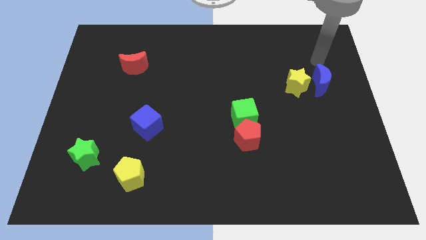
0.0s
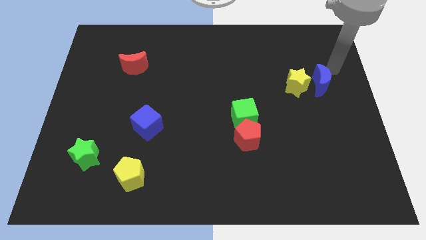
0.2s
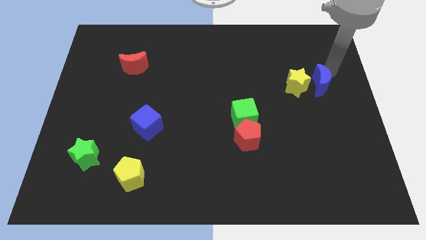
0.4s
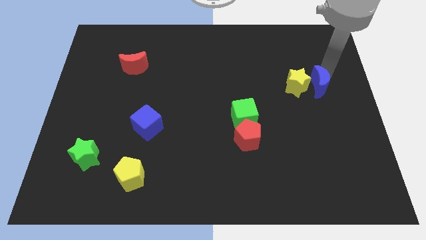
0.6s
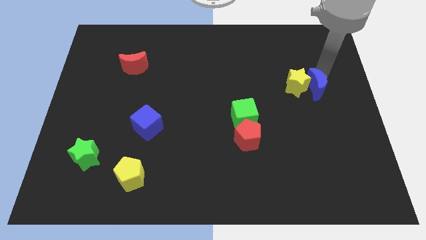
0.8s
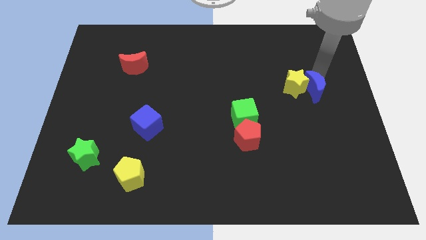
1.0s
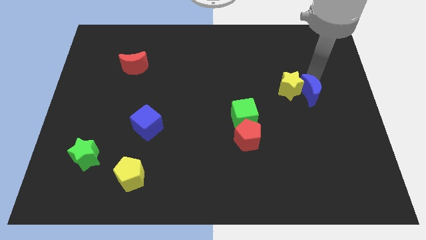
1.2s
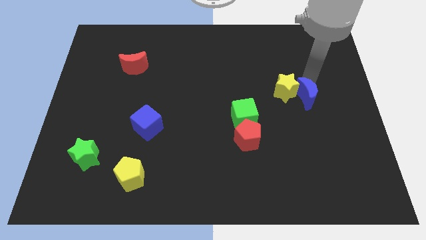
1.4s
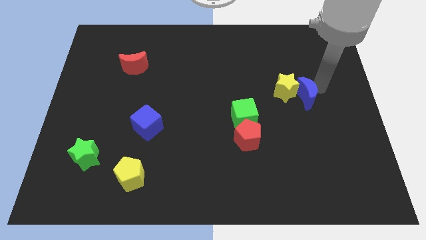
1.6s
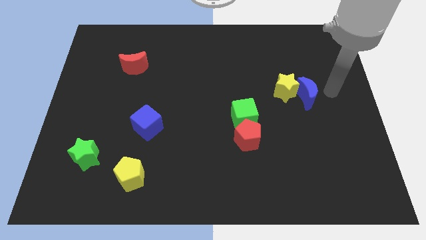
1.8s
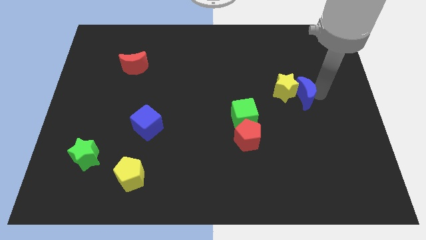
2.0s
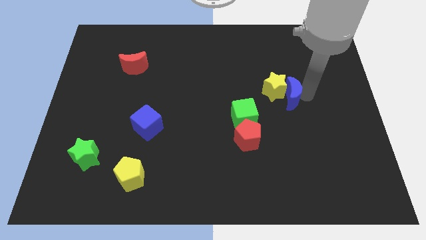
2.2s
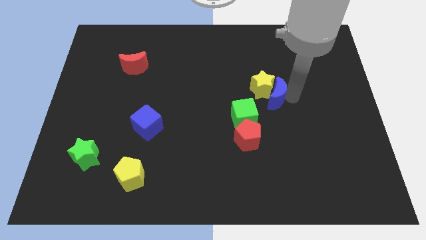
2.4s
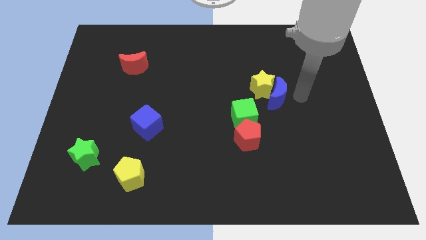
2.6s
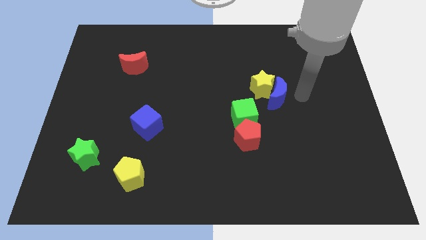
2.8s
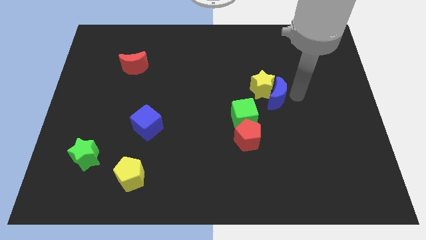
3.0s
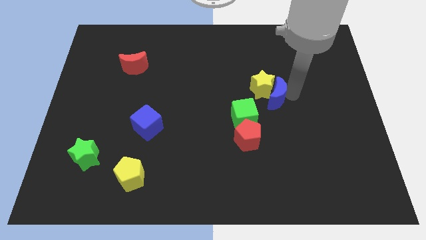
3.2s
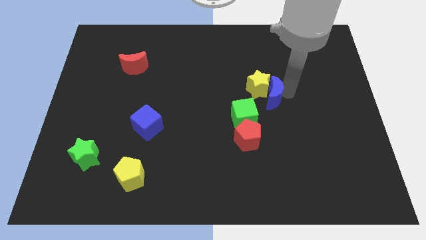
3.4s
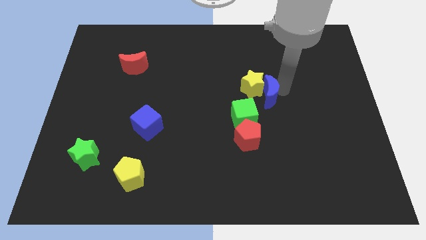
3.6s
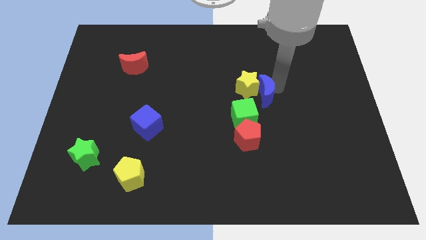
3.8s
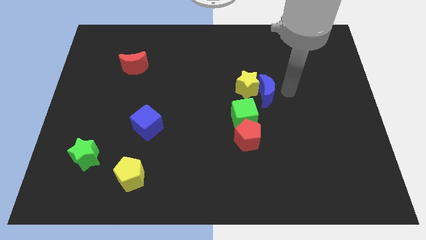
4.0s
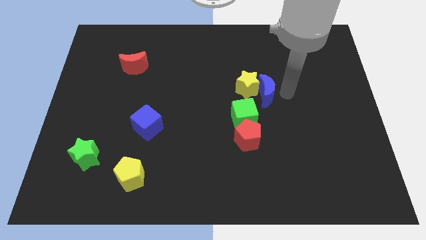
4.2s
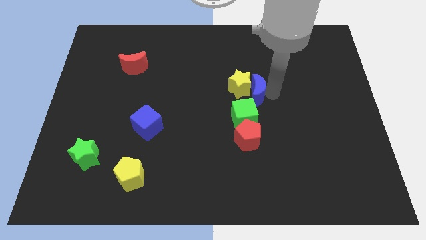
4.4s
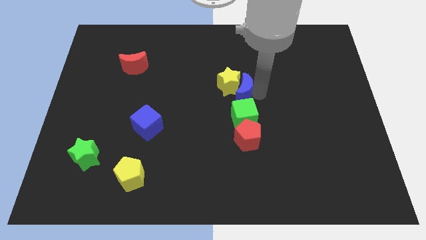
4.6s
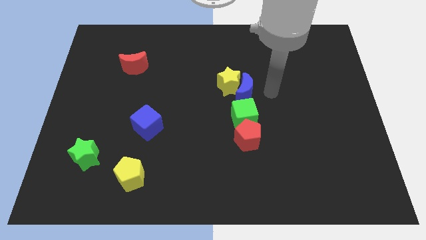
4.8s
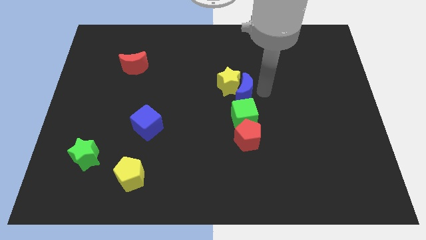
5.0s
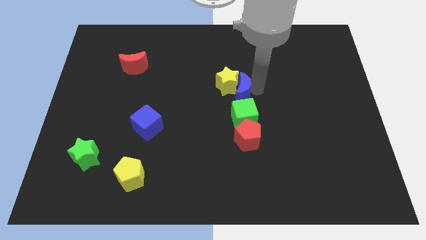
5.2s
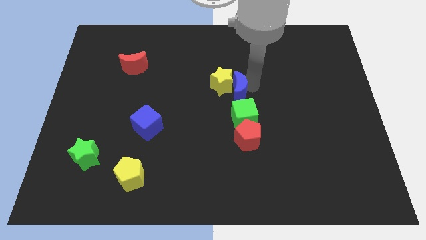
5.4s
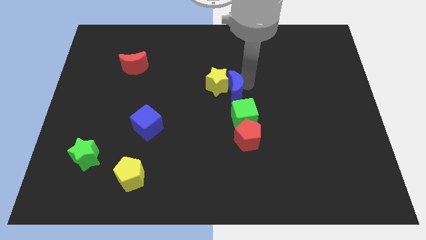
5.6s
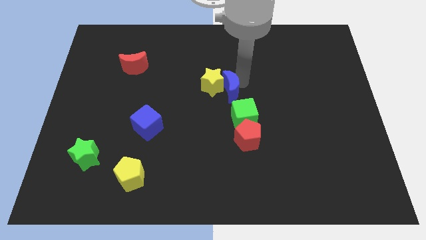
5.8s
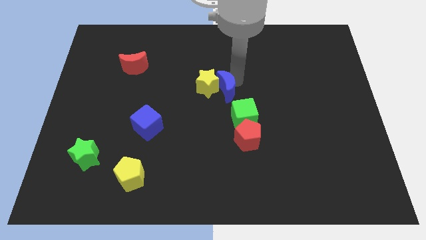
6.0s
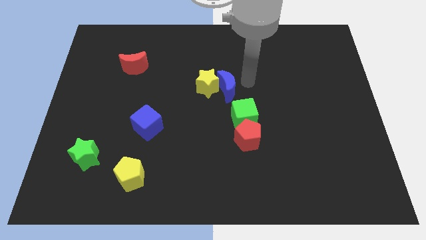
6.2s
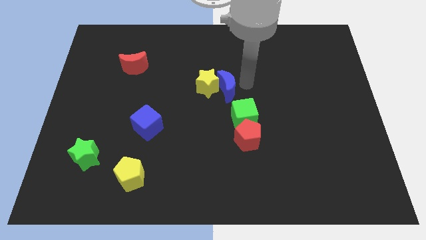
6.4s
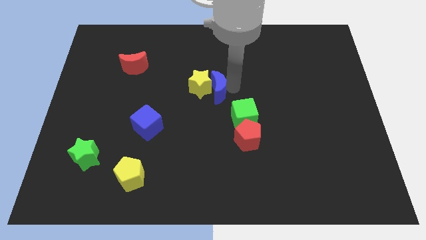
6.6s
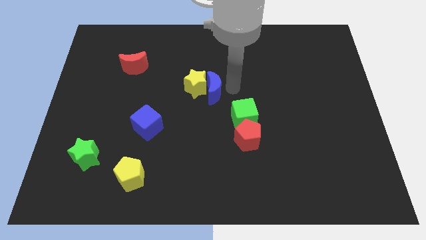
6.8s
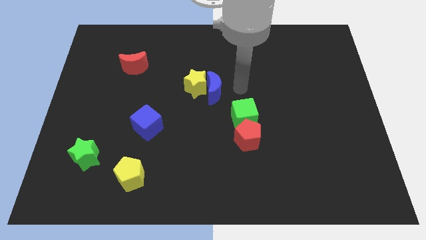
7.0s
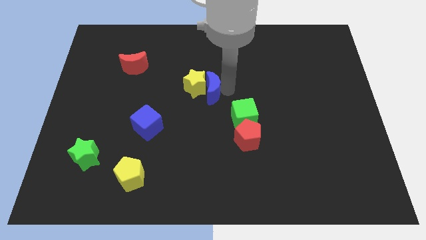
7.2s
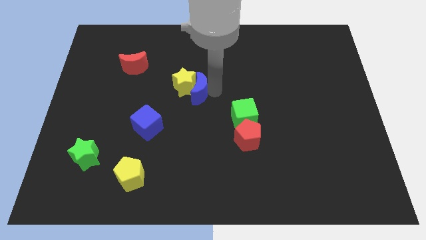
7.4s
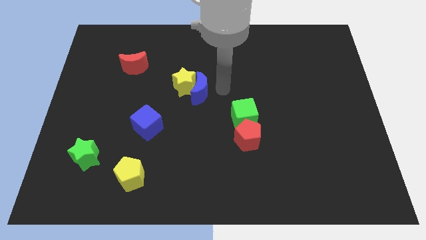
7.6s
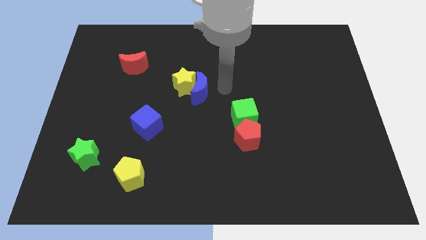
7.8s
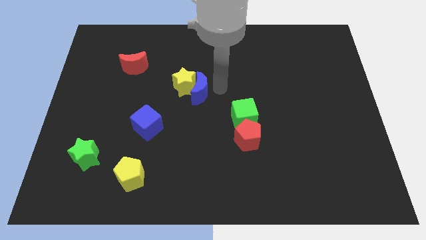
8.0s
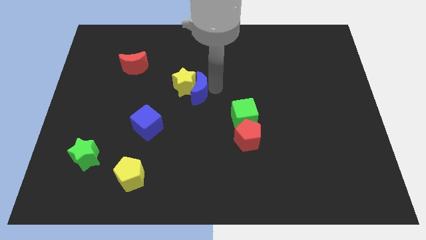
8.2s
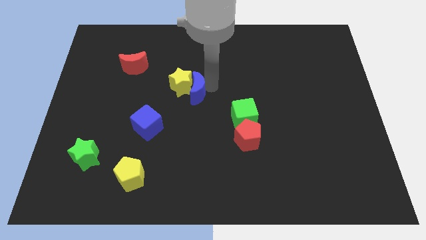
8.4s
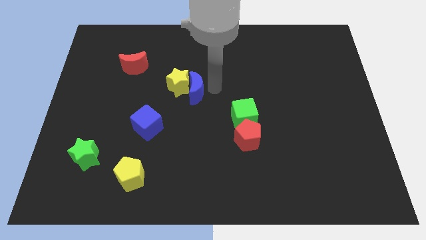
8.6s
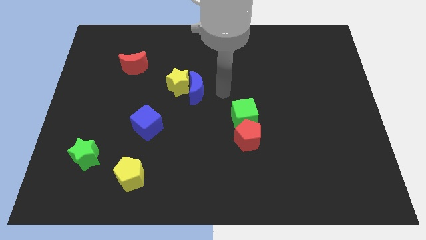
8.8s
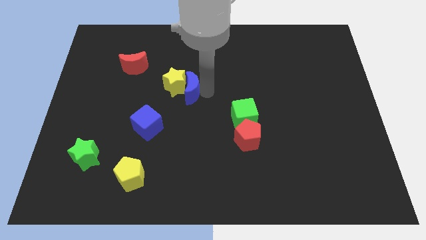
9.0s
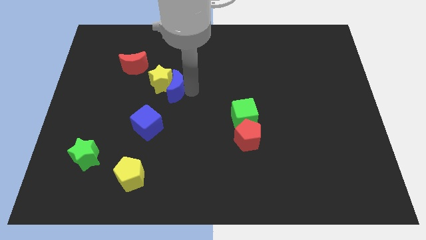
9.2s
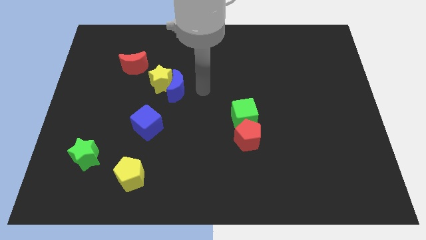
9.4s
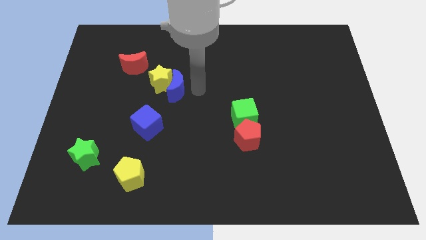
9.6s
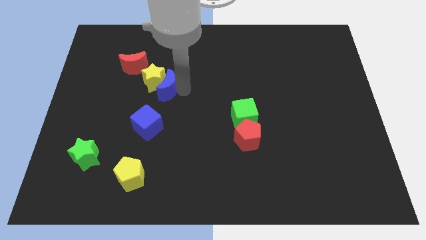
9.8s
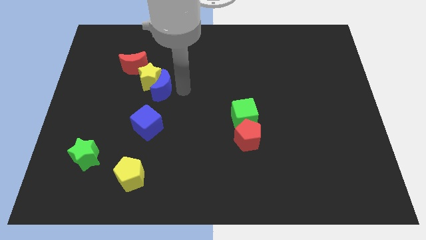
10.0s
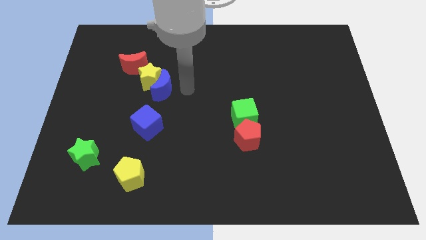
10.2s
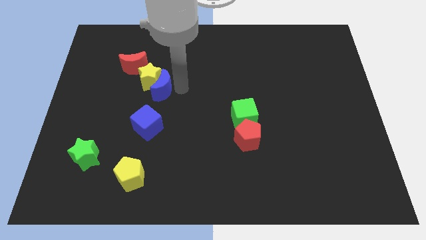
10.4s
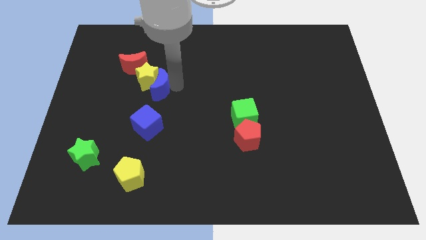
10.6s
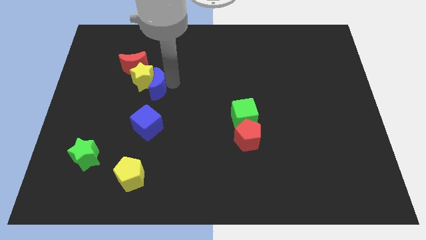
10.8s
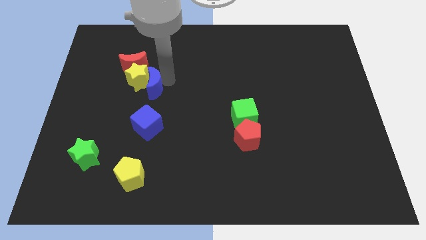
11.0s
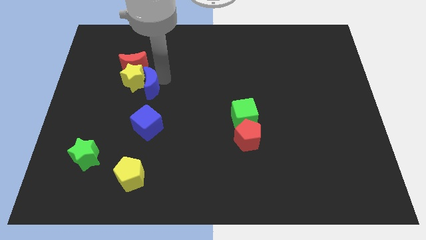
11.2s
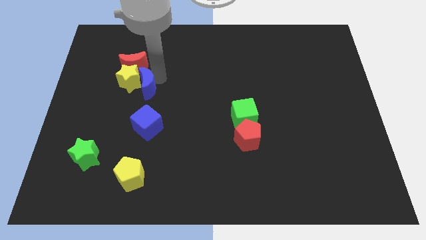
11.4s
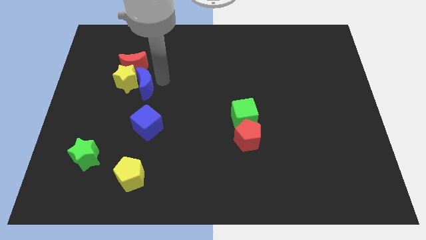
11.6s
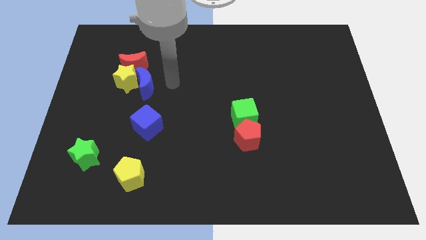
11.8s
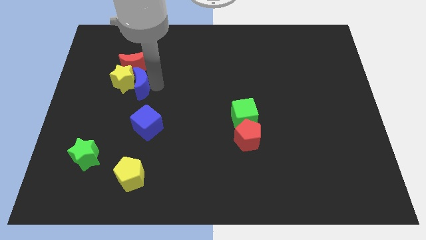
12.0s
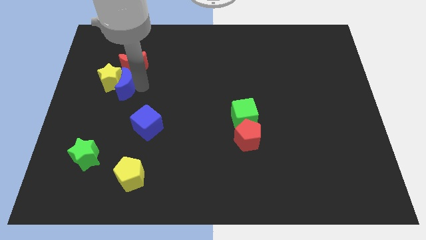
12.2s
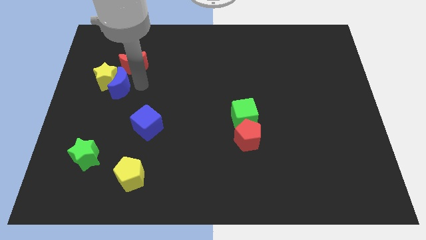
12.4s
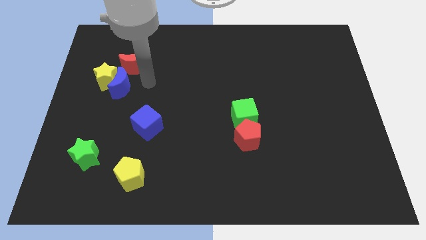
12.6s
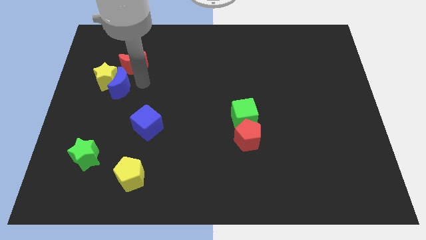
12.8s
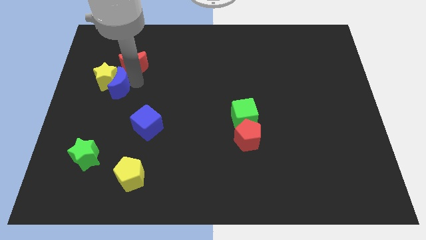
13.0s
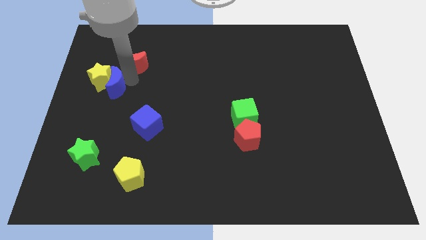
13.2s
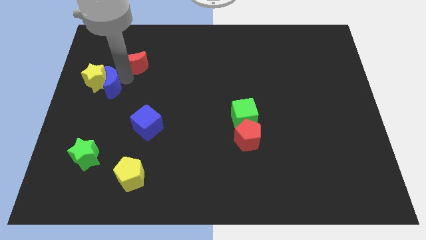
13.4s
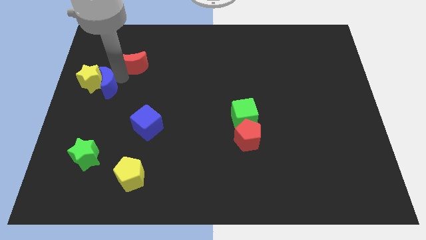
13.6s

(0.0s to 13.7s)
move the blue moon to the center left

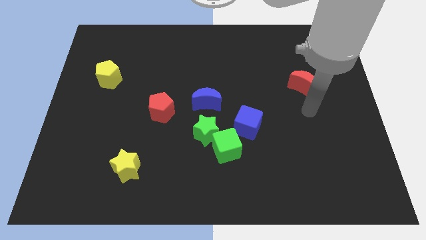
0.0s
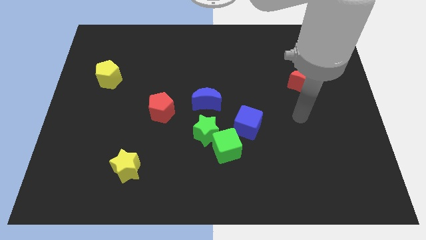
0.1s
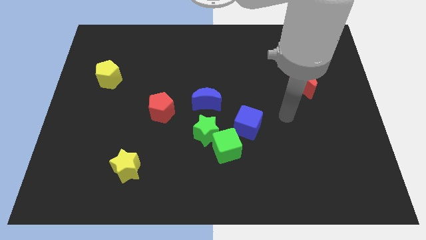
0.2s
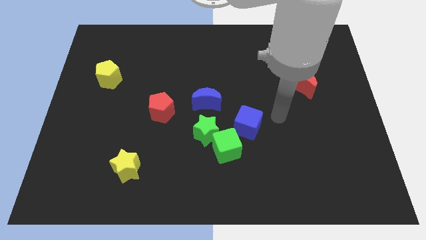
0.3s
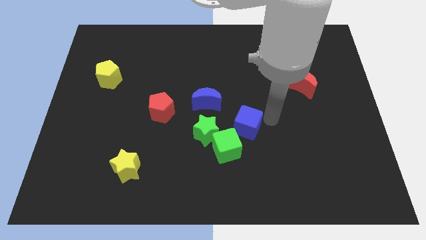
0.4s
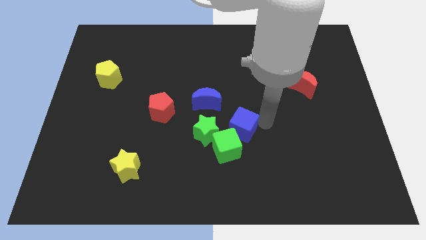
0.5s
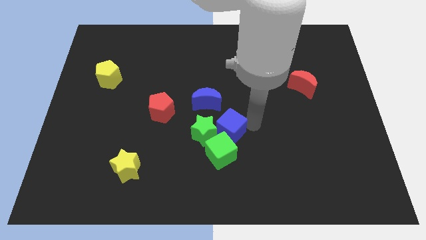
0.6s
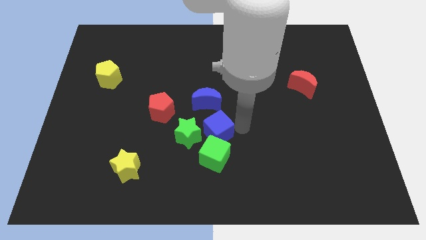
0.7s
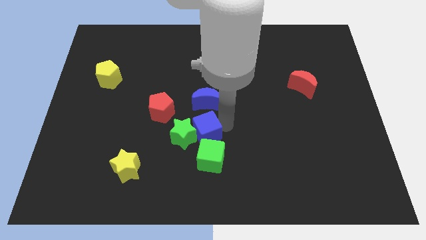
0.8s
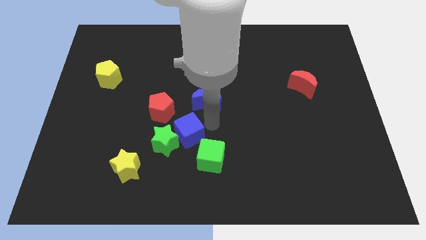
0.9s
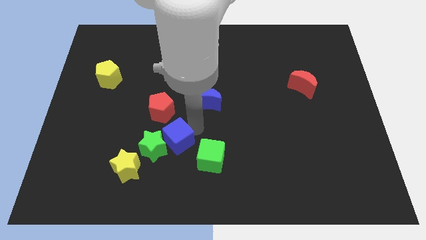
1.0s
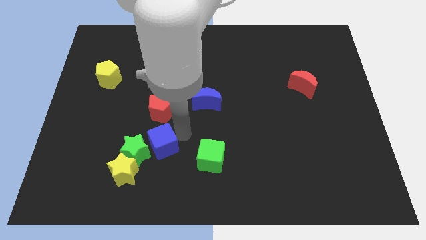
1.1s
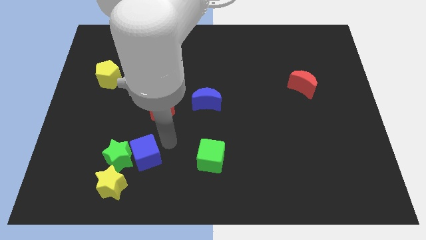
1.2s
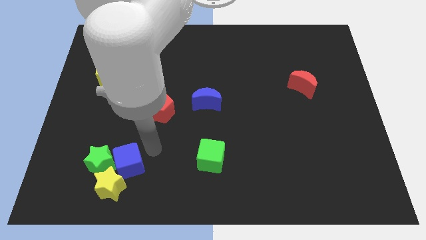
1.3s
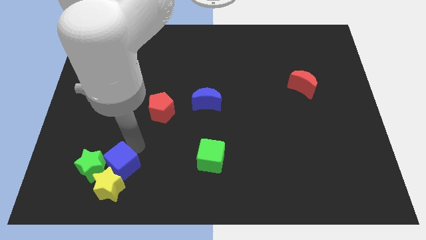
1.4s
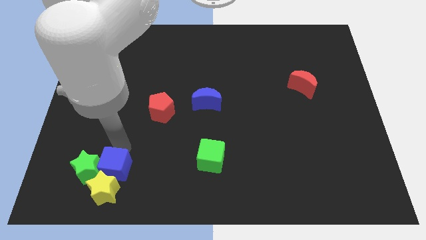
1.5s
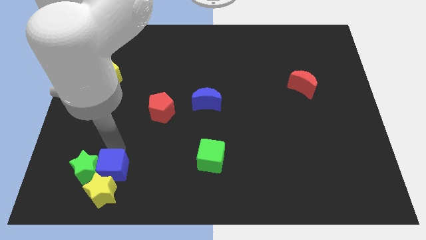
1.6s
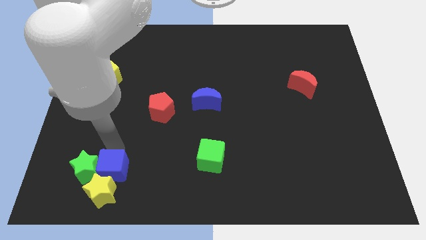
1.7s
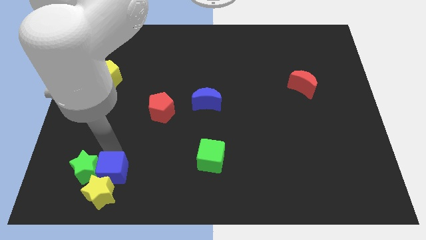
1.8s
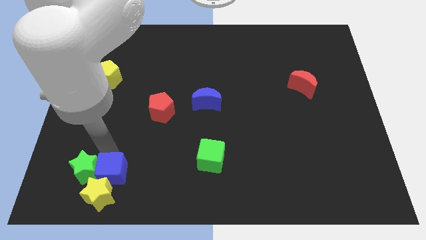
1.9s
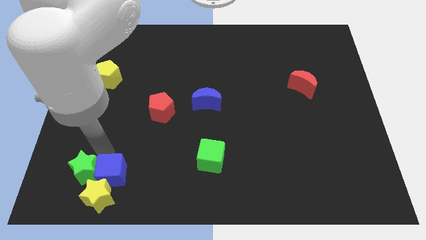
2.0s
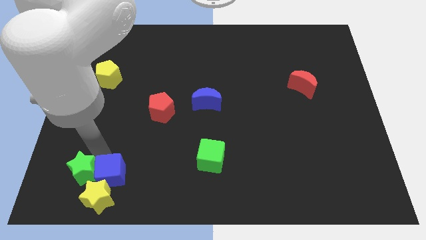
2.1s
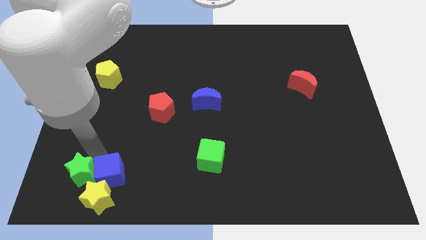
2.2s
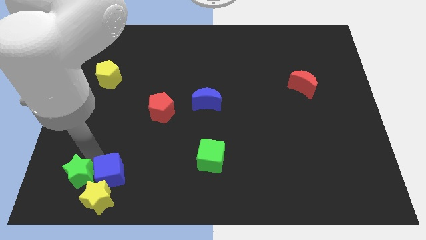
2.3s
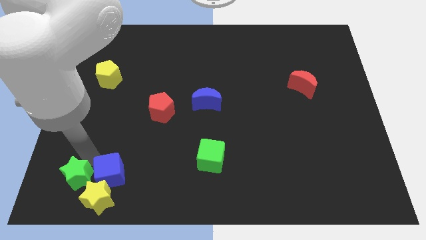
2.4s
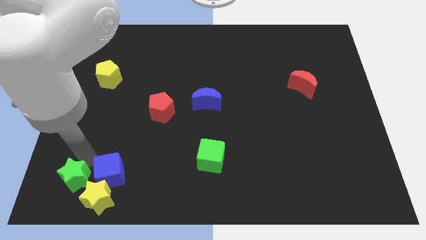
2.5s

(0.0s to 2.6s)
put the green star to the lower left corner
